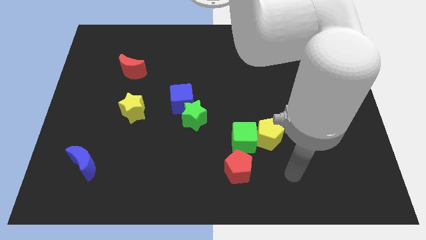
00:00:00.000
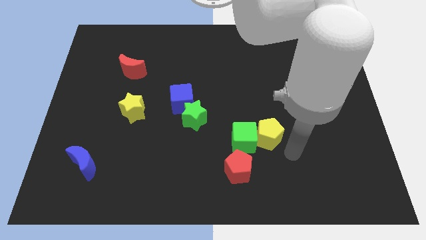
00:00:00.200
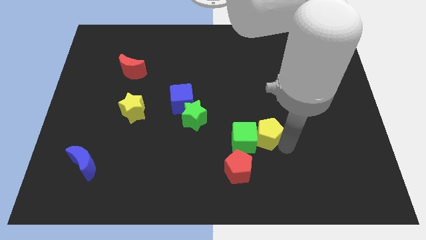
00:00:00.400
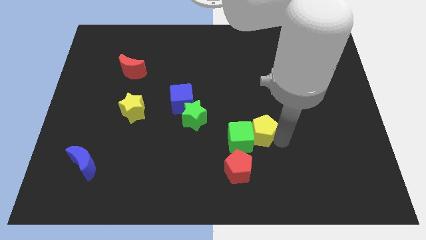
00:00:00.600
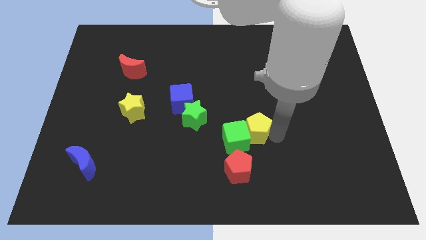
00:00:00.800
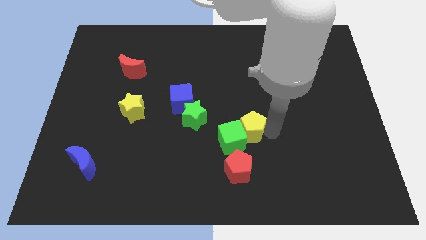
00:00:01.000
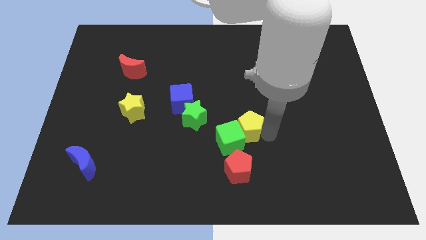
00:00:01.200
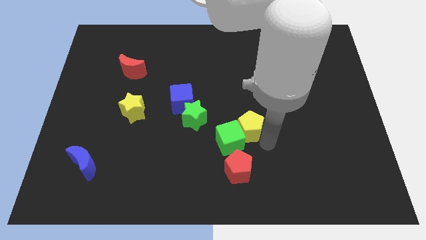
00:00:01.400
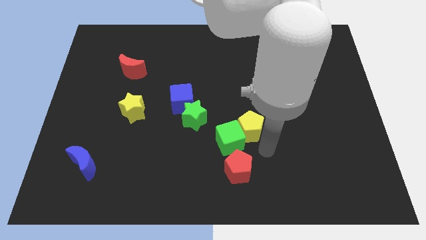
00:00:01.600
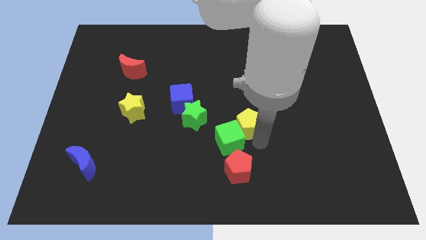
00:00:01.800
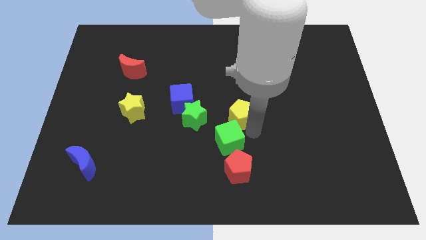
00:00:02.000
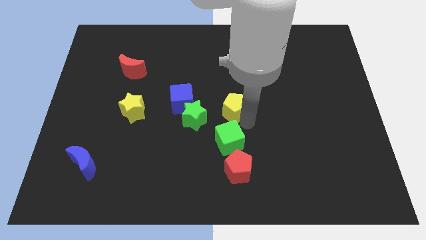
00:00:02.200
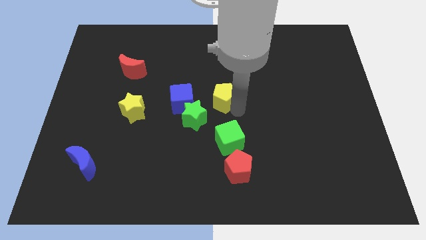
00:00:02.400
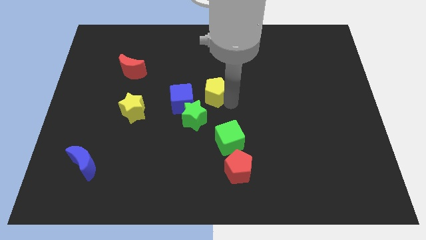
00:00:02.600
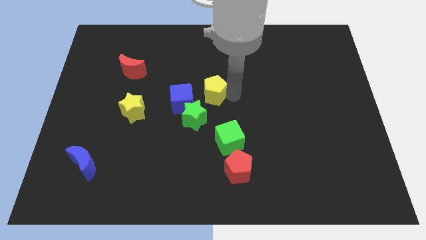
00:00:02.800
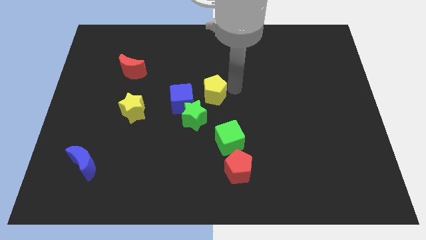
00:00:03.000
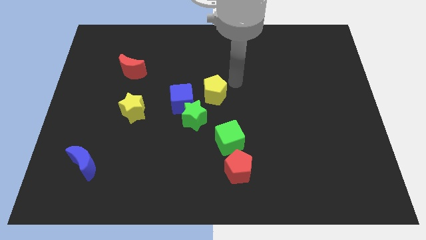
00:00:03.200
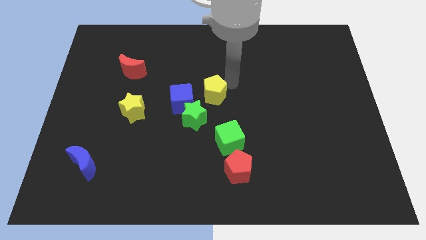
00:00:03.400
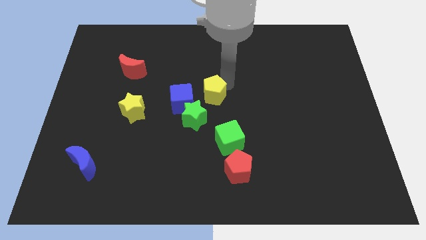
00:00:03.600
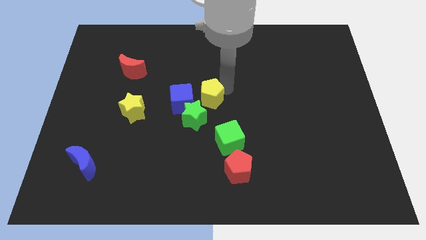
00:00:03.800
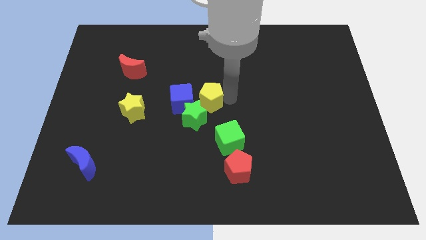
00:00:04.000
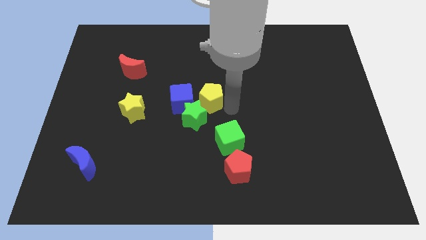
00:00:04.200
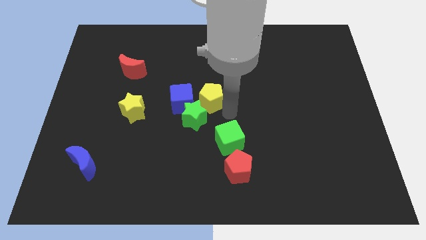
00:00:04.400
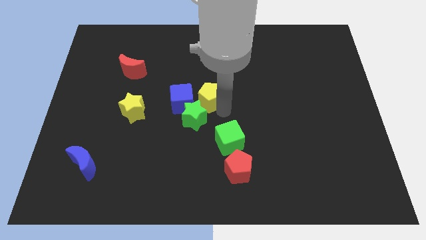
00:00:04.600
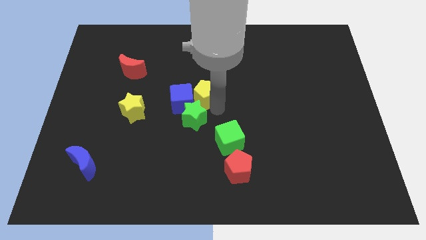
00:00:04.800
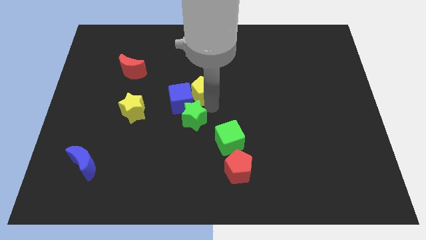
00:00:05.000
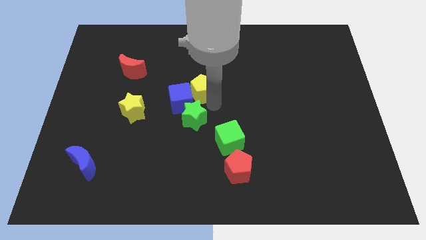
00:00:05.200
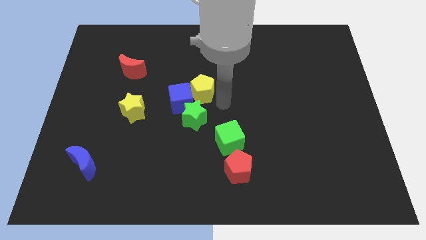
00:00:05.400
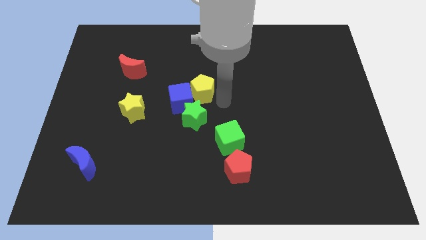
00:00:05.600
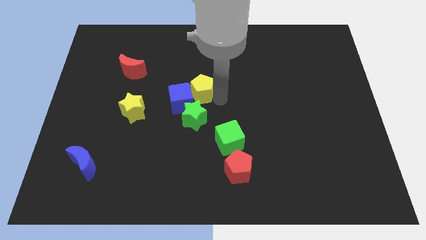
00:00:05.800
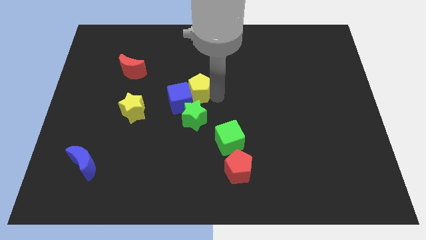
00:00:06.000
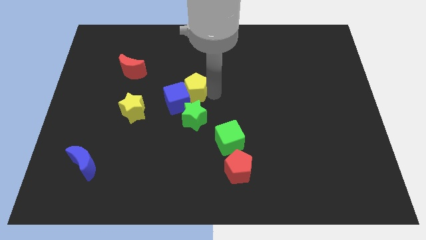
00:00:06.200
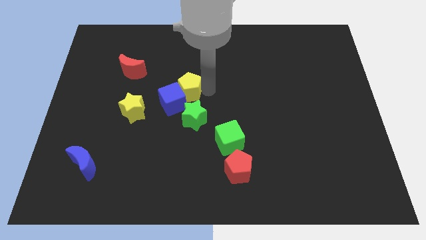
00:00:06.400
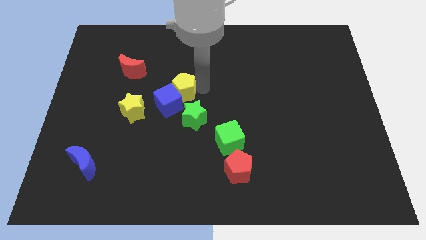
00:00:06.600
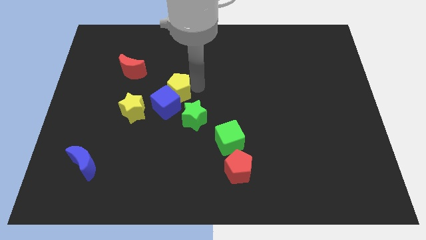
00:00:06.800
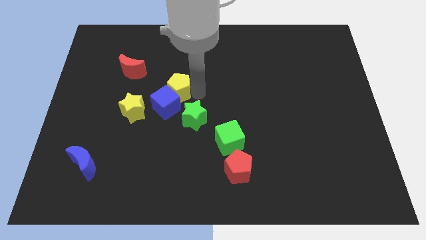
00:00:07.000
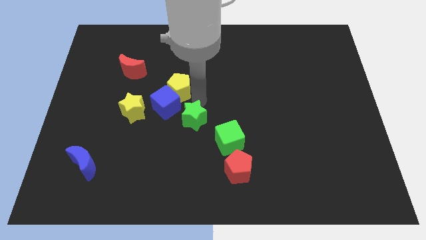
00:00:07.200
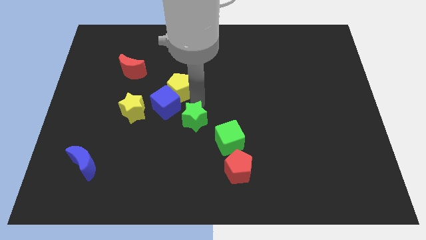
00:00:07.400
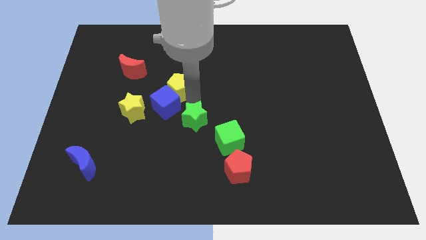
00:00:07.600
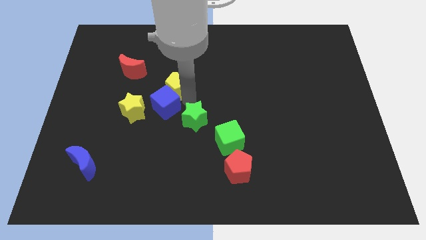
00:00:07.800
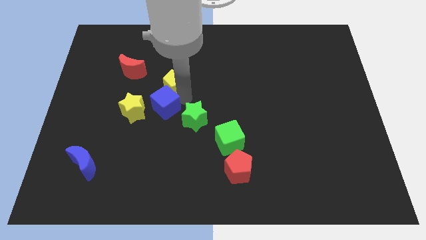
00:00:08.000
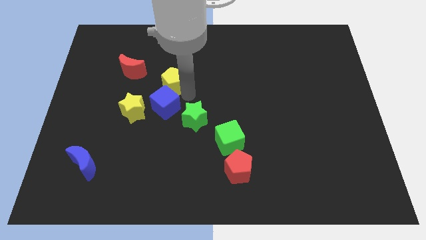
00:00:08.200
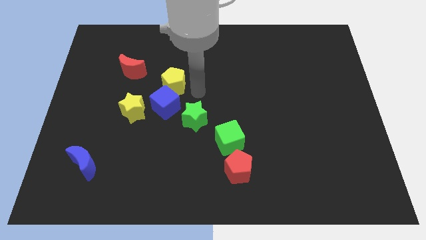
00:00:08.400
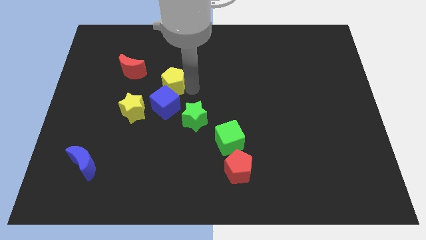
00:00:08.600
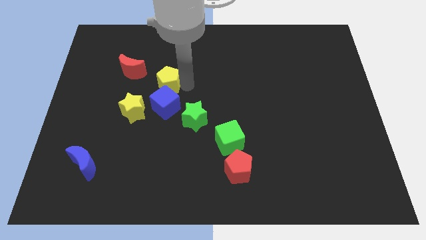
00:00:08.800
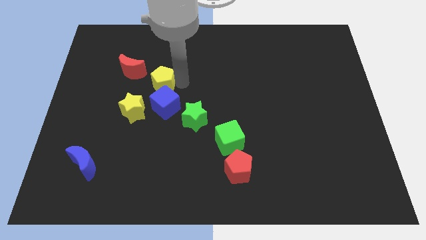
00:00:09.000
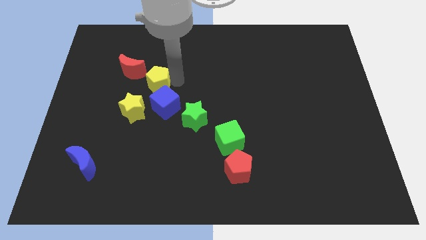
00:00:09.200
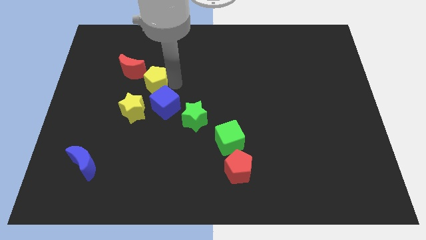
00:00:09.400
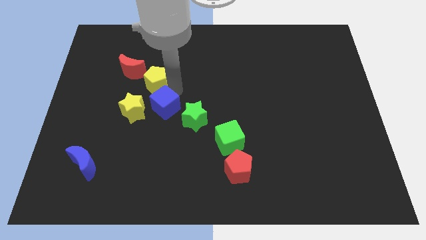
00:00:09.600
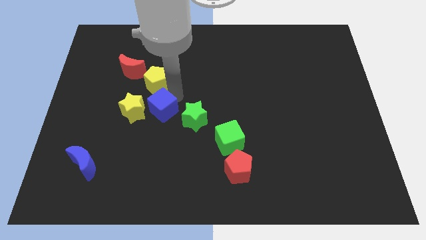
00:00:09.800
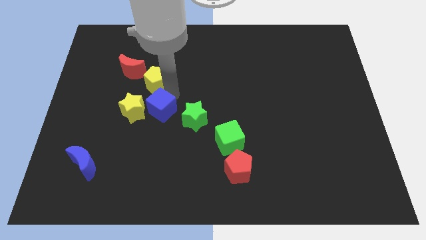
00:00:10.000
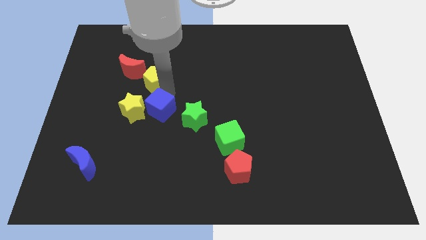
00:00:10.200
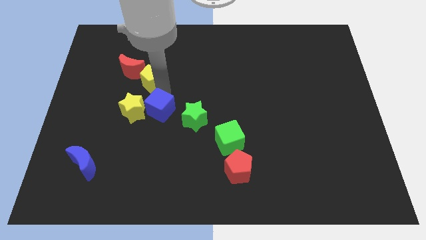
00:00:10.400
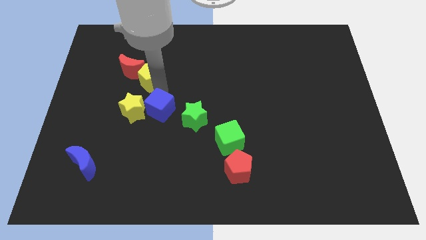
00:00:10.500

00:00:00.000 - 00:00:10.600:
push the yellow pentagon close to the red moon

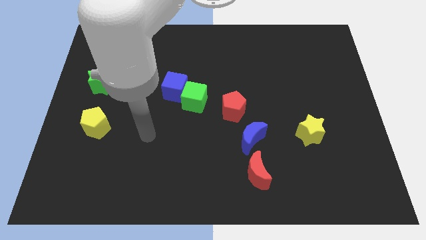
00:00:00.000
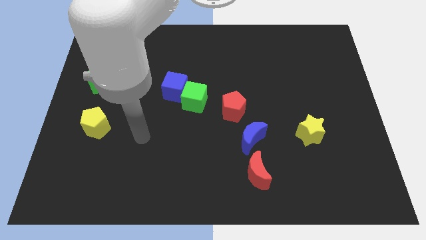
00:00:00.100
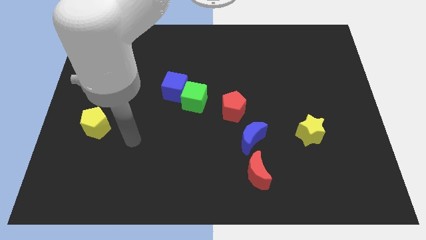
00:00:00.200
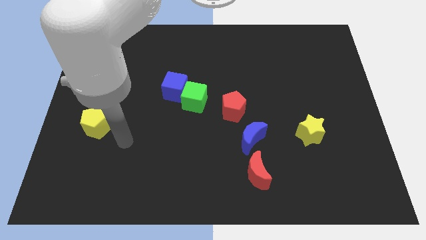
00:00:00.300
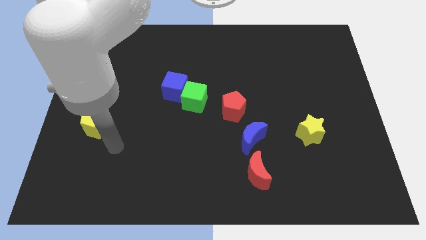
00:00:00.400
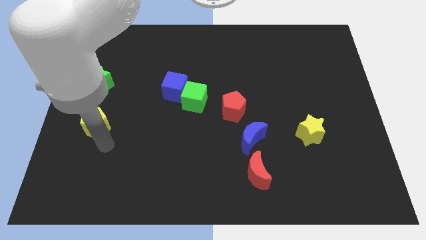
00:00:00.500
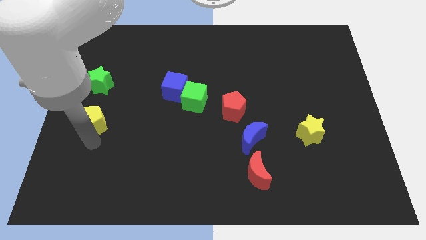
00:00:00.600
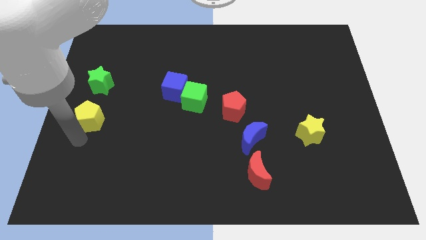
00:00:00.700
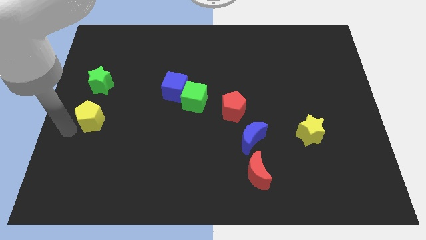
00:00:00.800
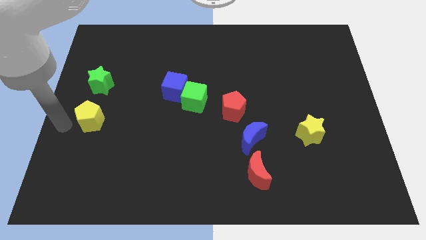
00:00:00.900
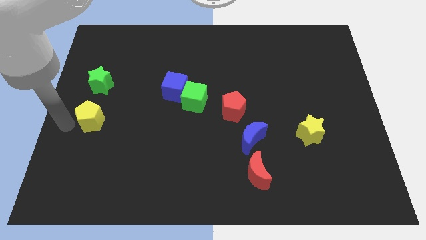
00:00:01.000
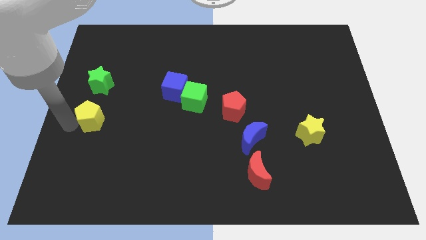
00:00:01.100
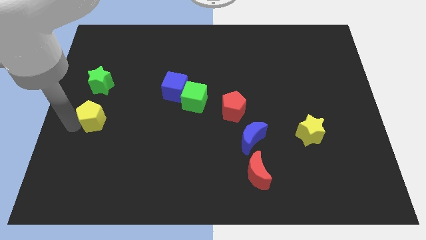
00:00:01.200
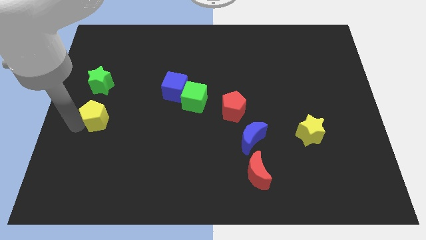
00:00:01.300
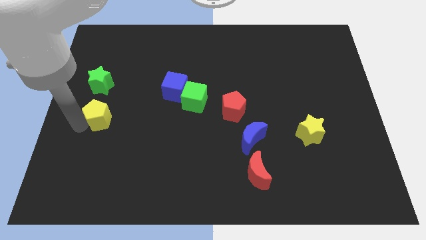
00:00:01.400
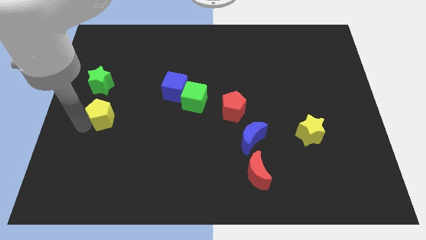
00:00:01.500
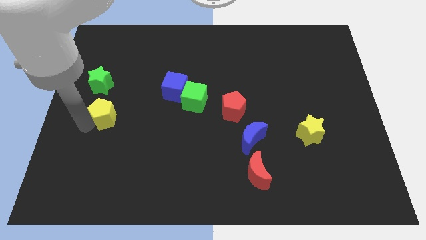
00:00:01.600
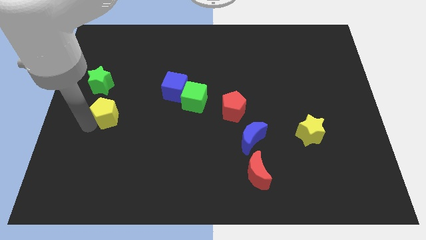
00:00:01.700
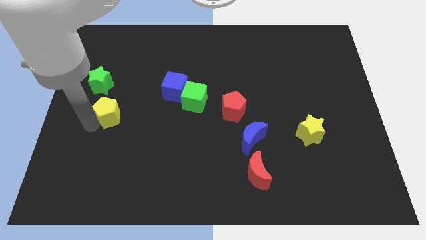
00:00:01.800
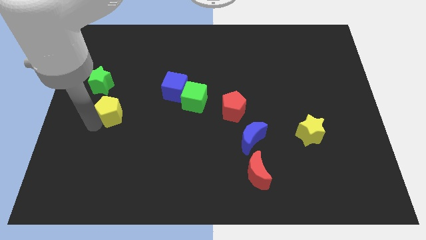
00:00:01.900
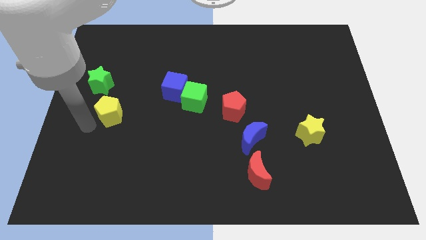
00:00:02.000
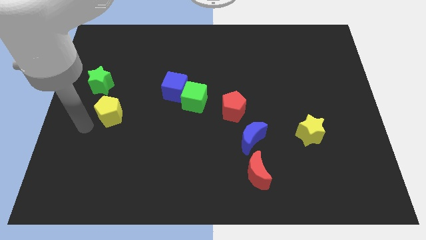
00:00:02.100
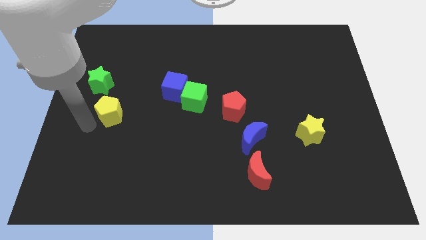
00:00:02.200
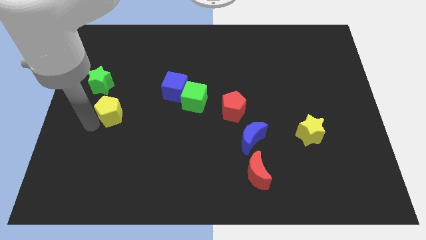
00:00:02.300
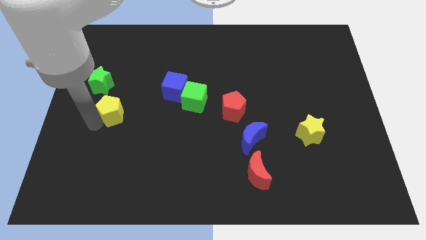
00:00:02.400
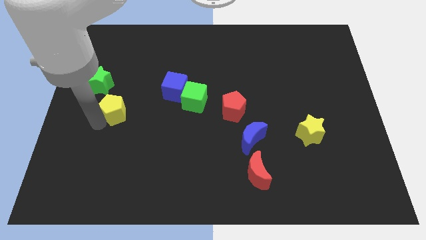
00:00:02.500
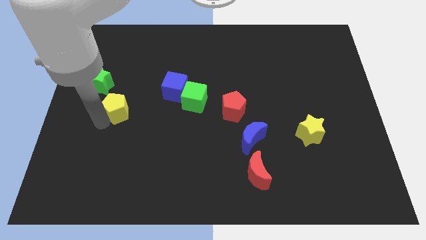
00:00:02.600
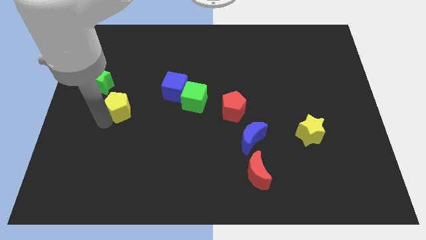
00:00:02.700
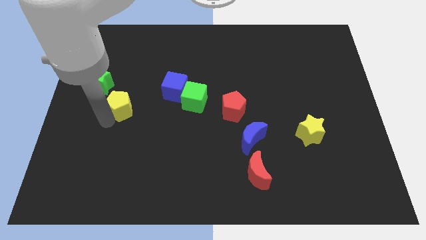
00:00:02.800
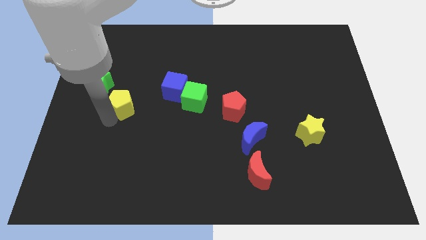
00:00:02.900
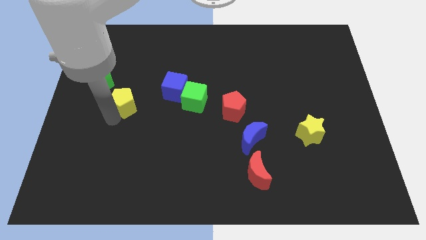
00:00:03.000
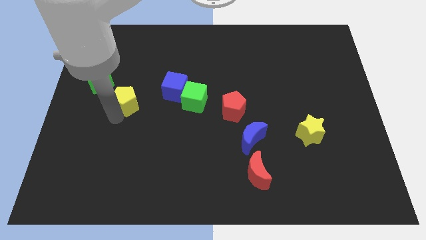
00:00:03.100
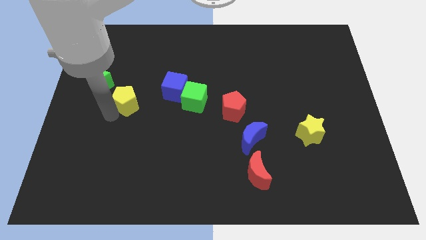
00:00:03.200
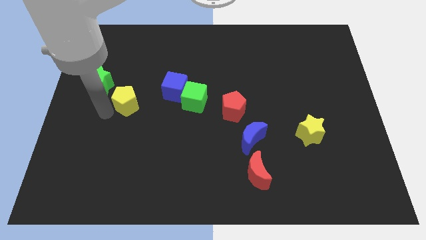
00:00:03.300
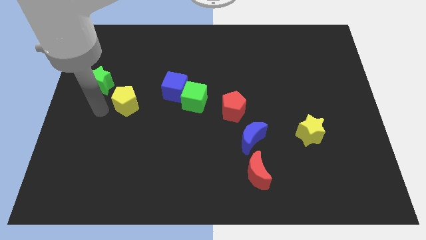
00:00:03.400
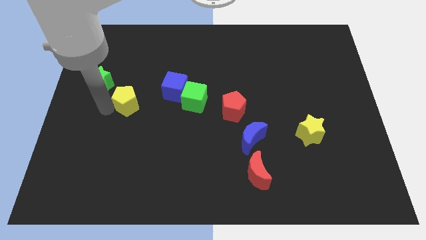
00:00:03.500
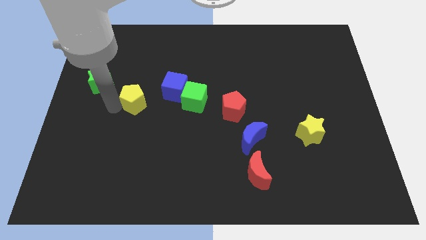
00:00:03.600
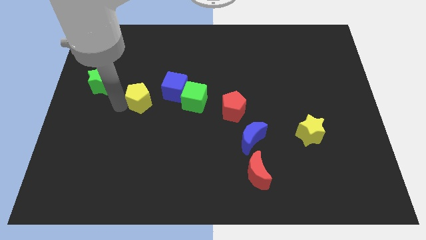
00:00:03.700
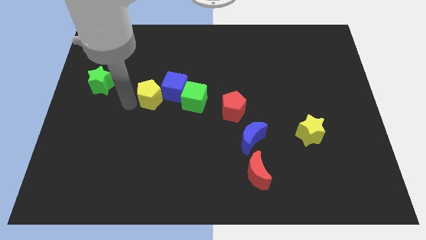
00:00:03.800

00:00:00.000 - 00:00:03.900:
push the yellow pentagon to the blue cube
